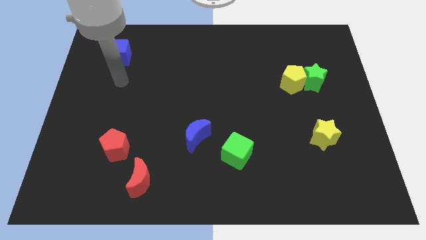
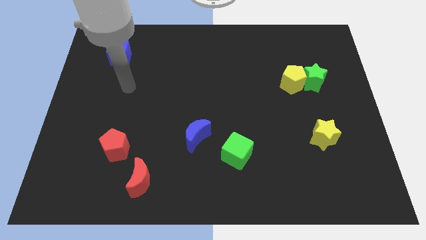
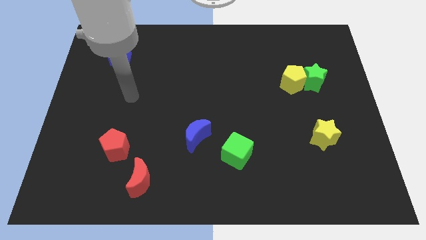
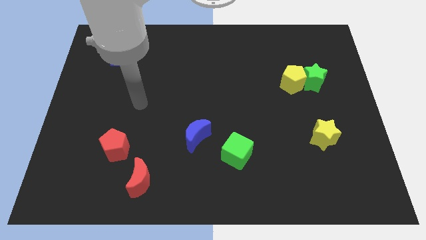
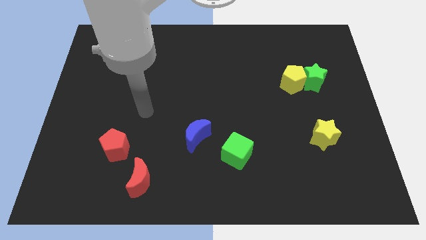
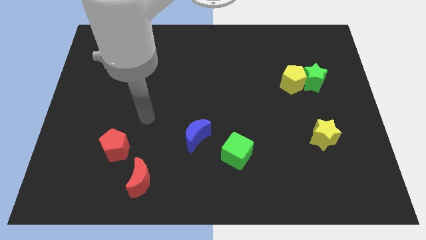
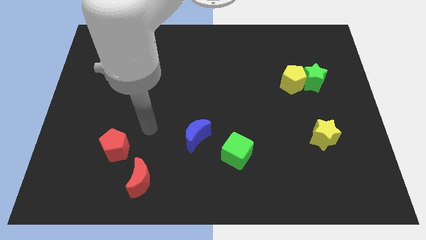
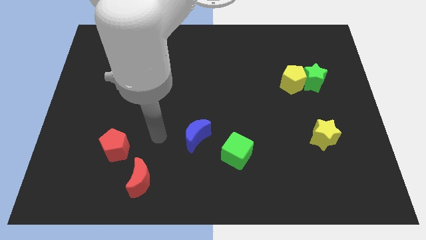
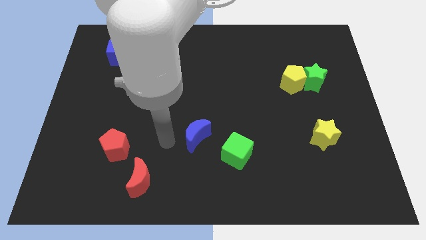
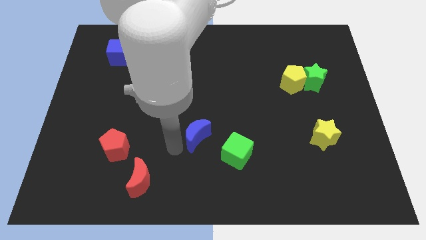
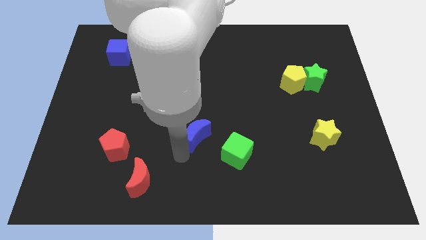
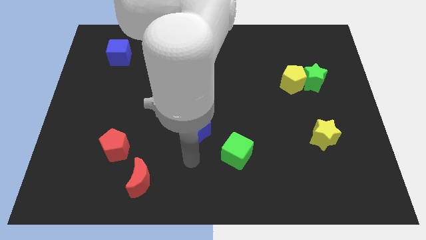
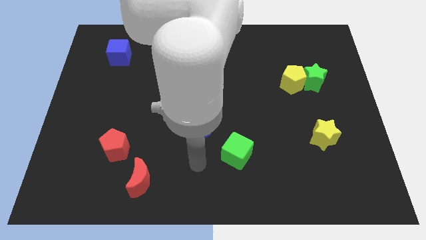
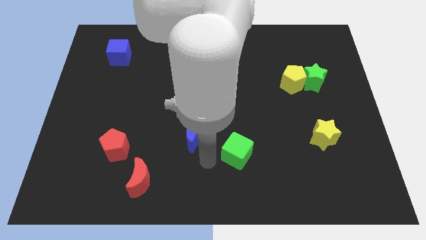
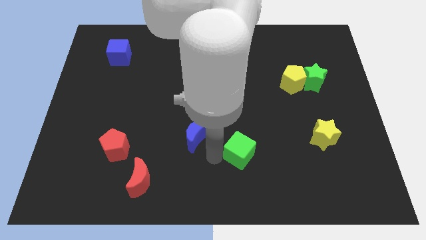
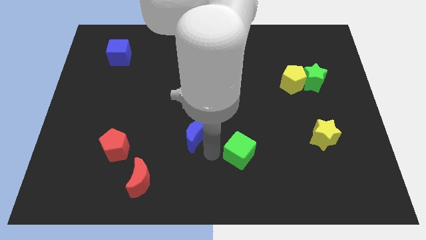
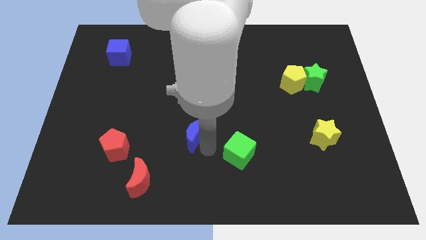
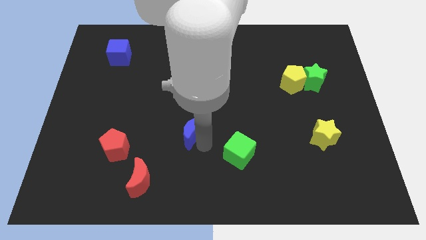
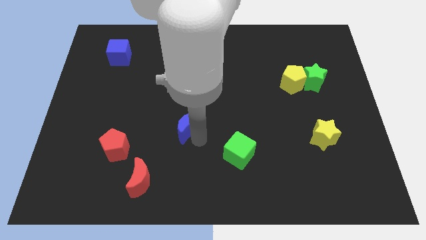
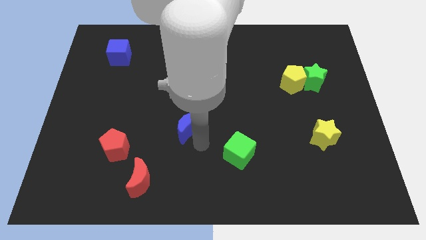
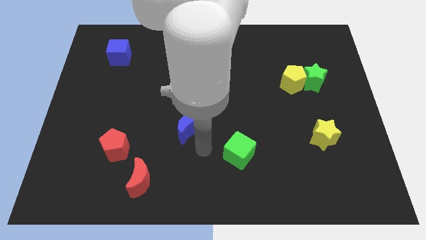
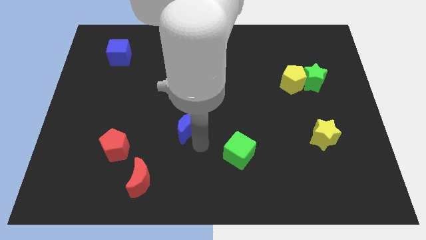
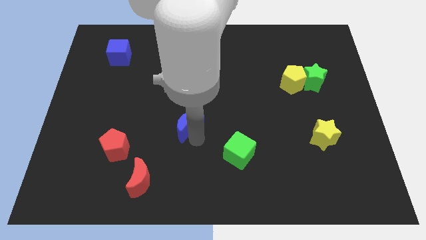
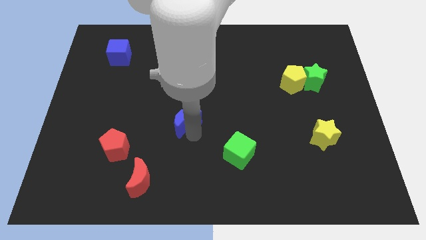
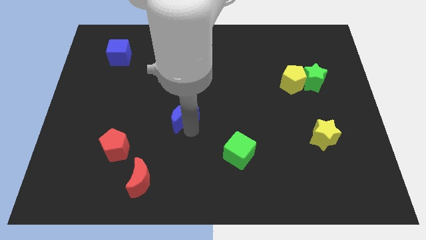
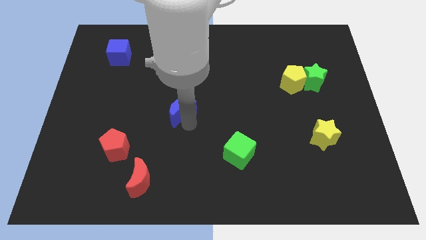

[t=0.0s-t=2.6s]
push the blue moon upwards and to the left a bit

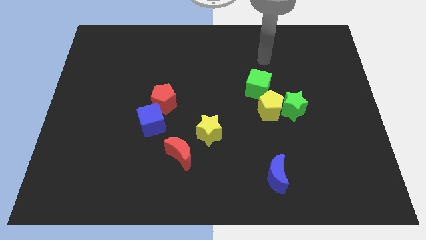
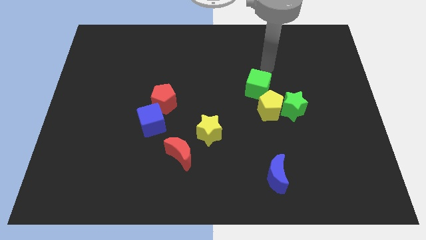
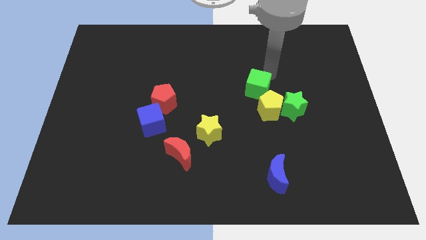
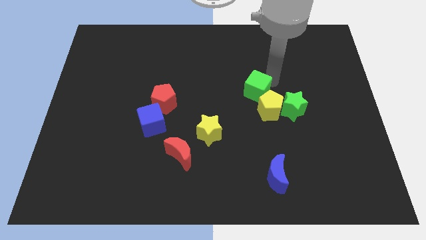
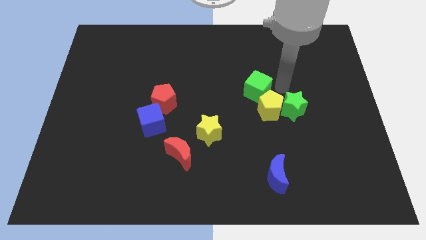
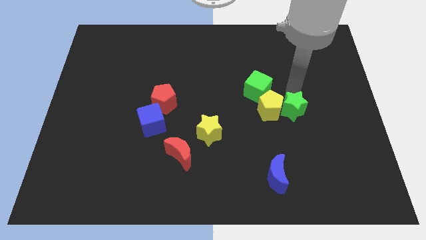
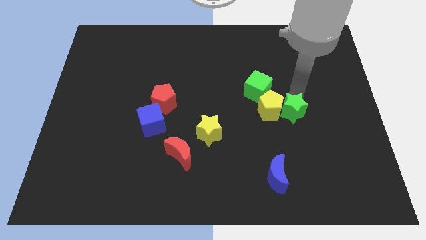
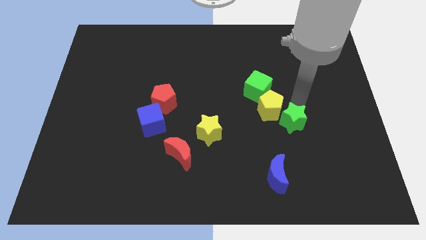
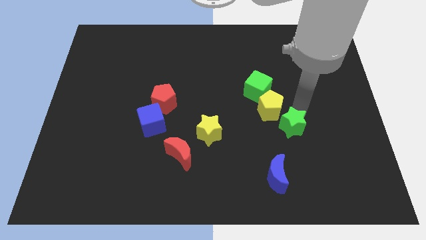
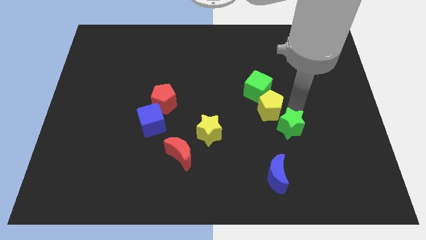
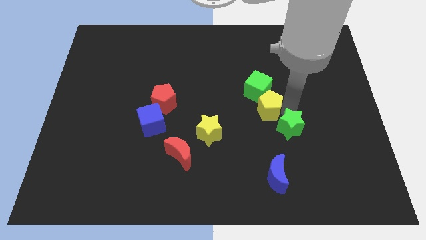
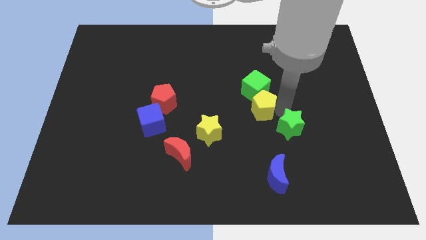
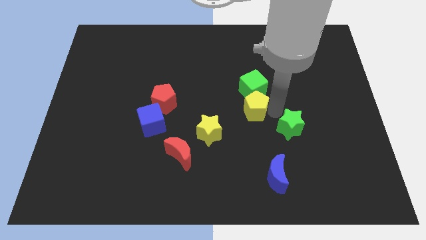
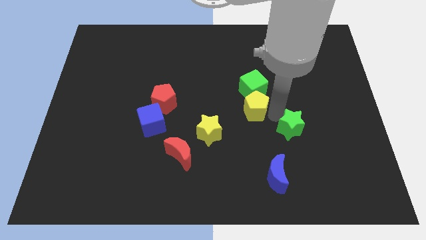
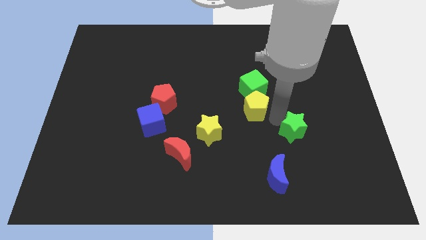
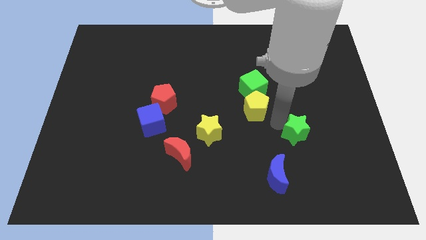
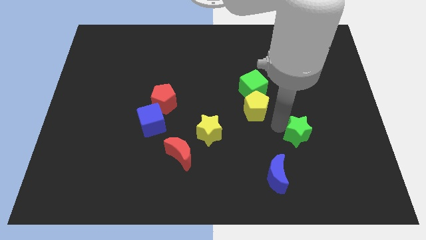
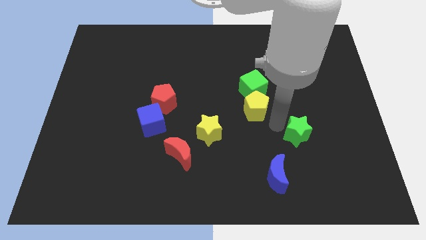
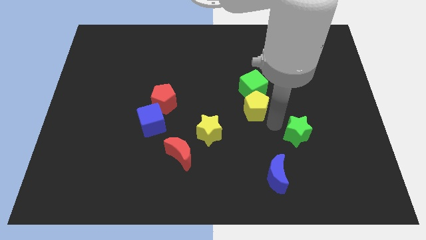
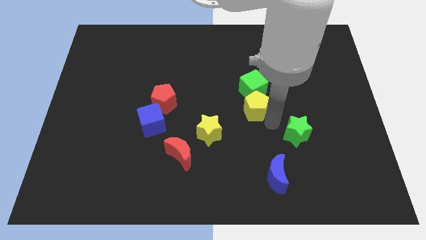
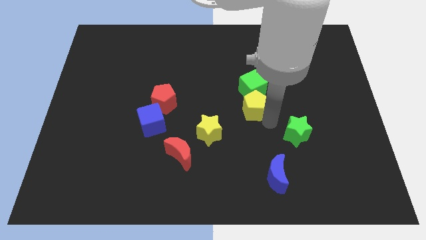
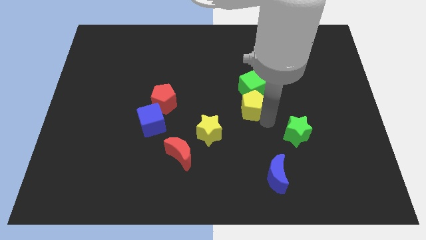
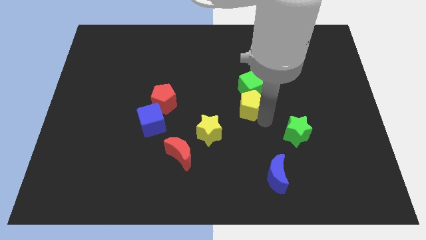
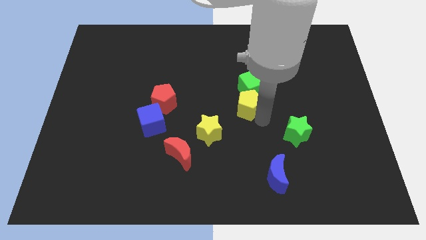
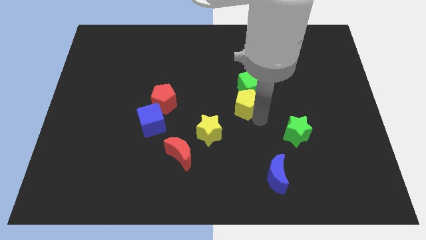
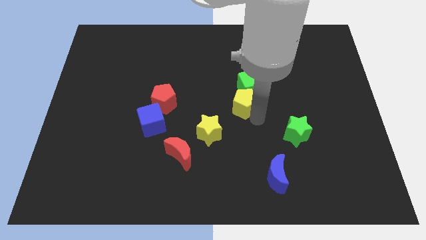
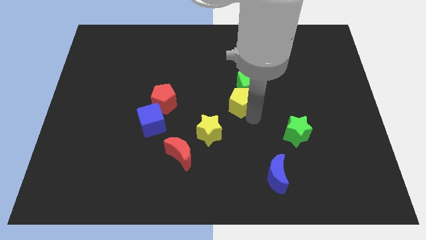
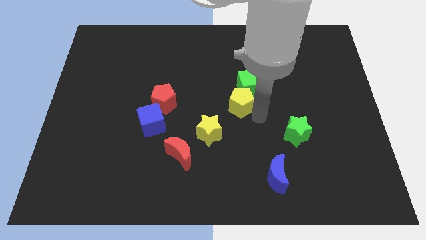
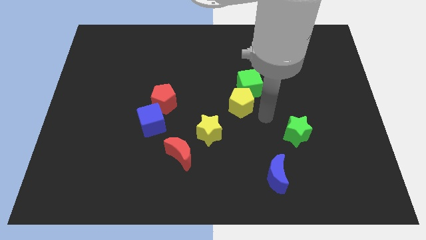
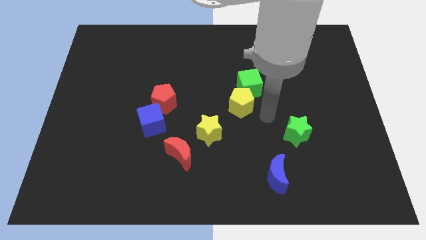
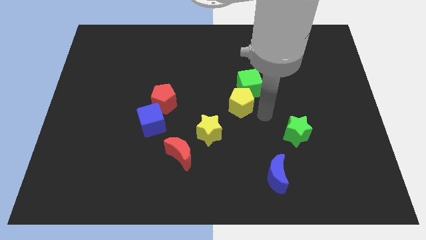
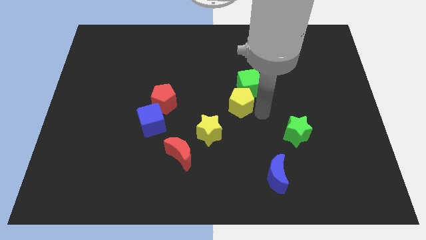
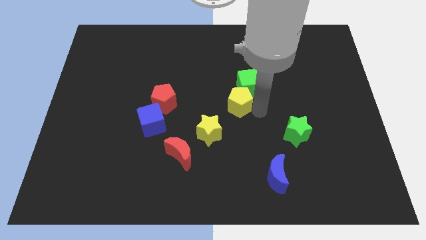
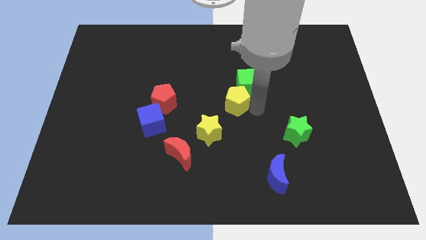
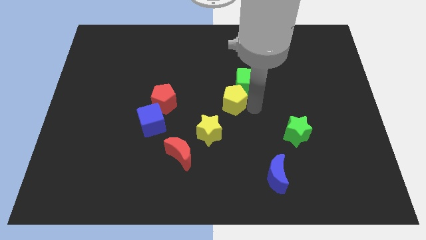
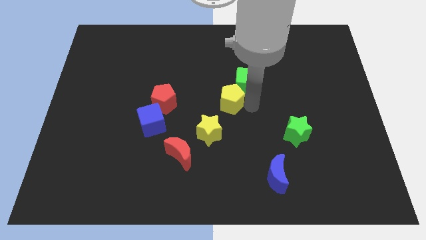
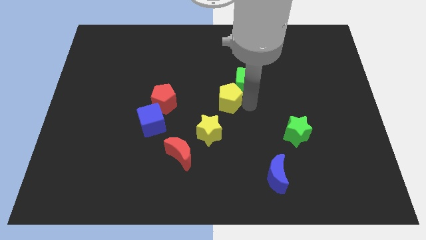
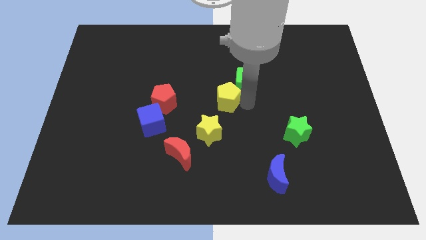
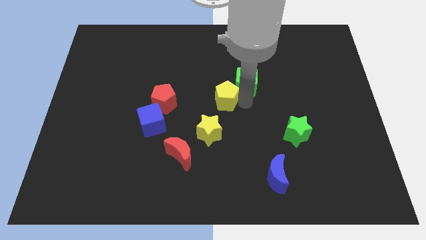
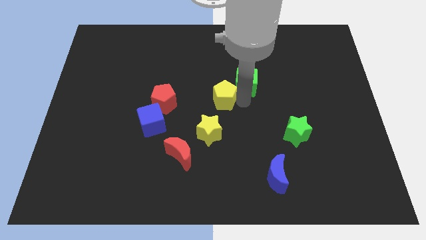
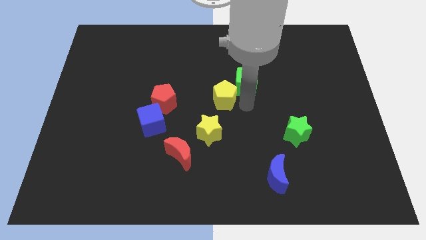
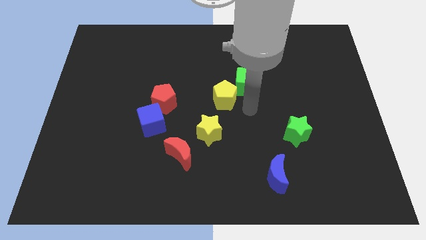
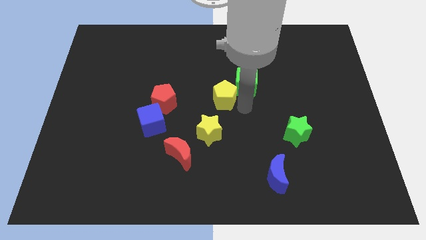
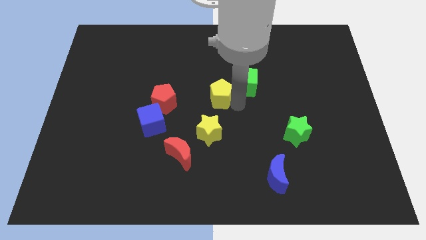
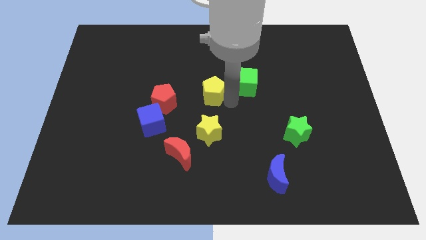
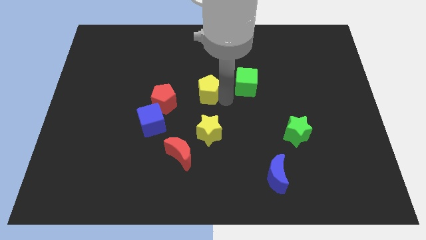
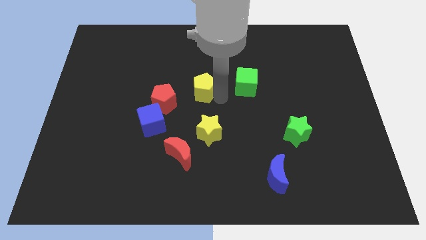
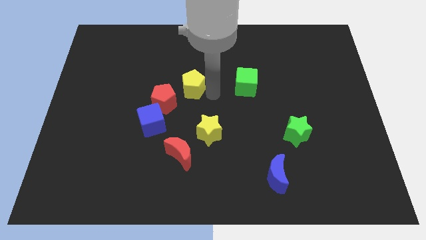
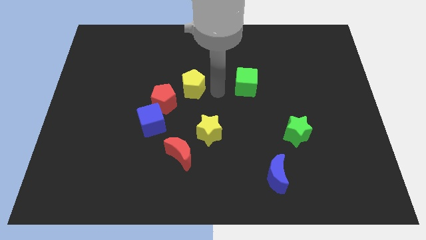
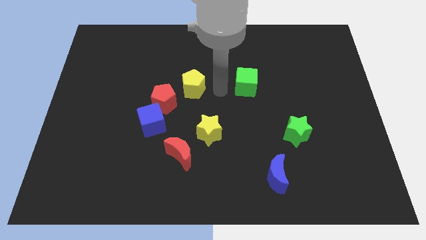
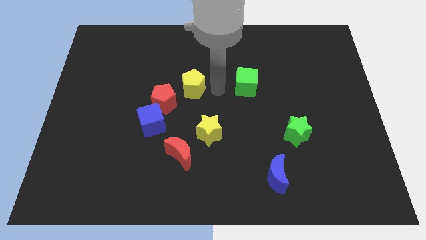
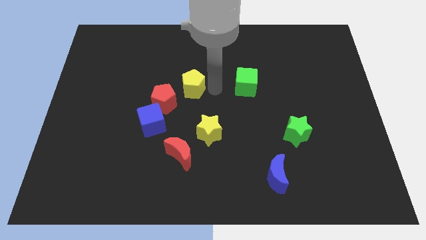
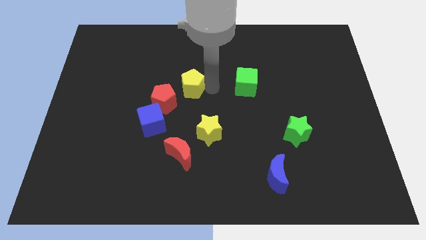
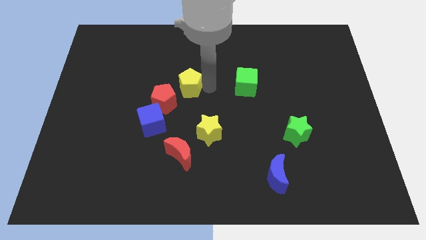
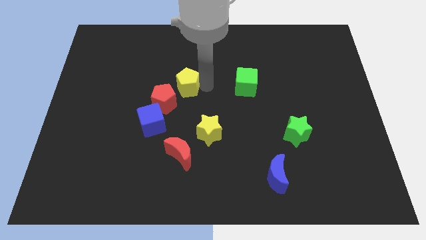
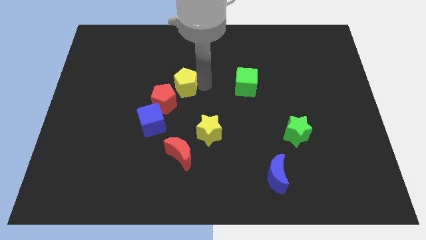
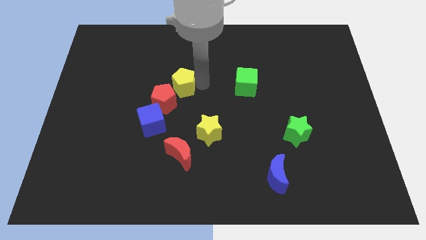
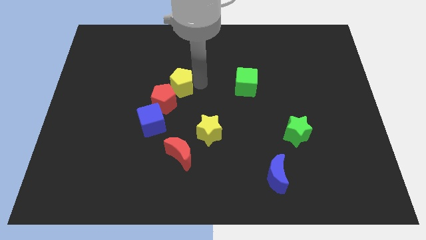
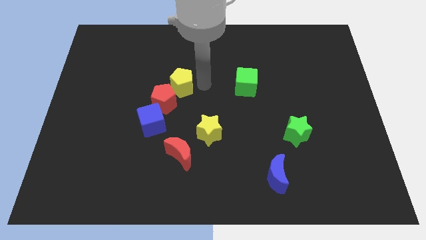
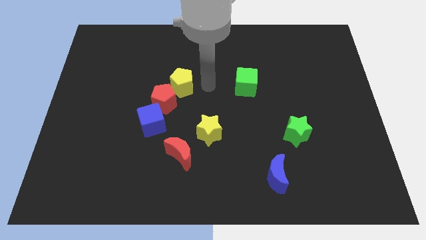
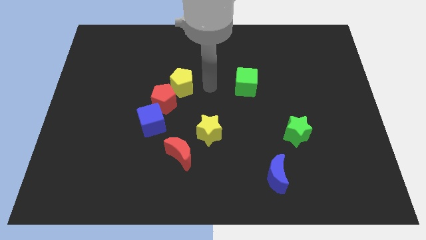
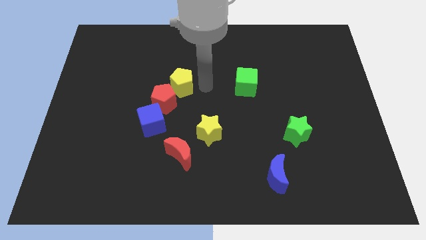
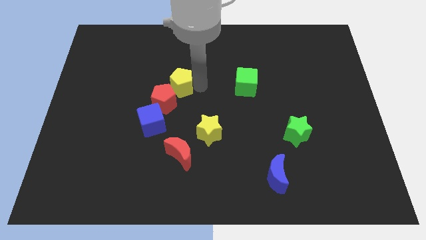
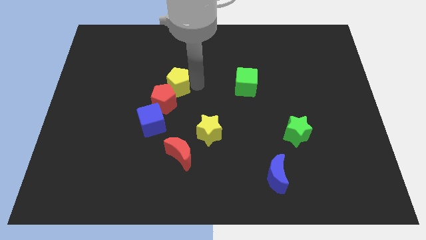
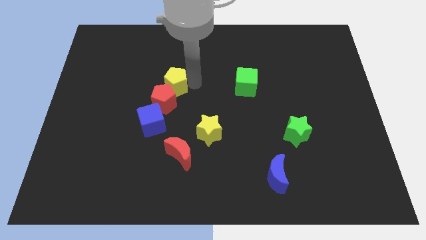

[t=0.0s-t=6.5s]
push the yellow pentagon to the left
